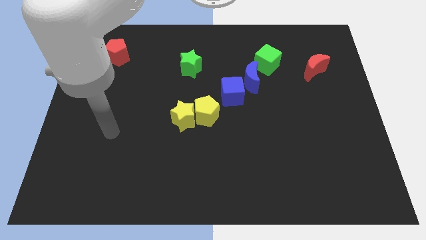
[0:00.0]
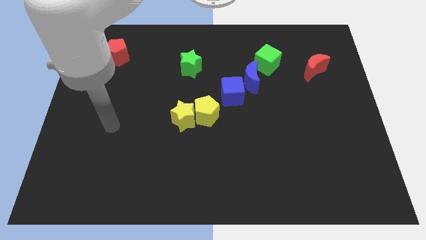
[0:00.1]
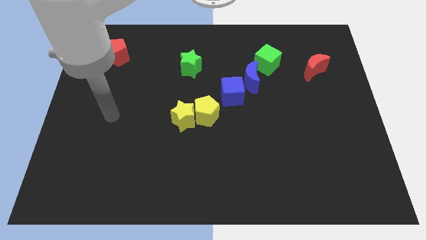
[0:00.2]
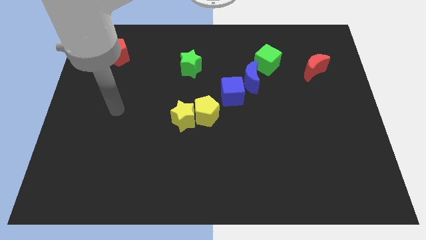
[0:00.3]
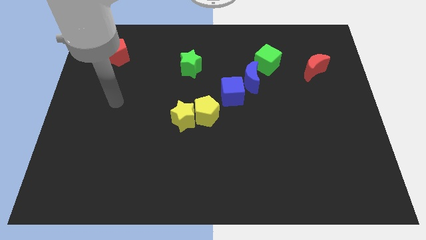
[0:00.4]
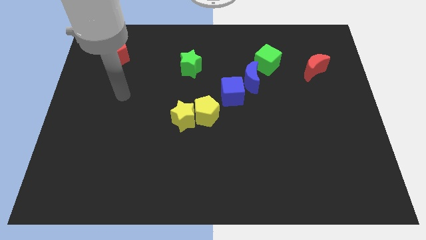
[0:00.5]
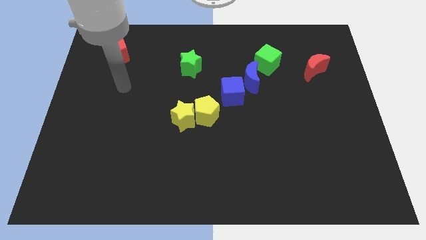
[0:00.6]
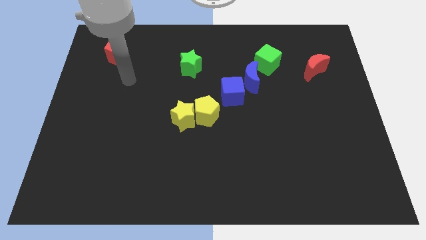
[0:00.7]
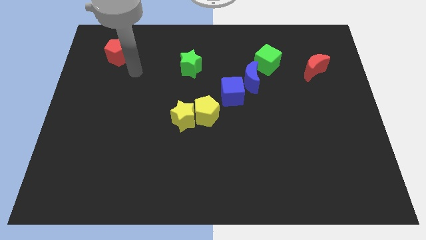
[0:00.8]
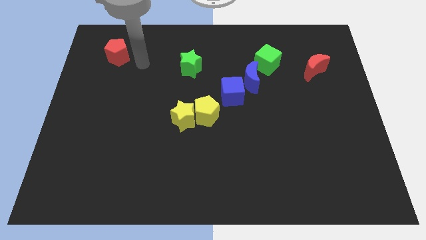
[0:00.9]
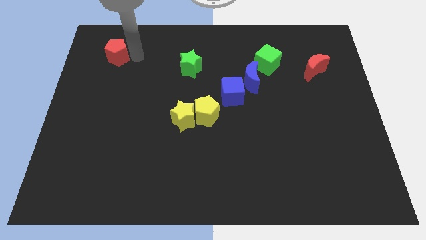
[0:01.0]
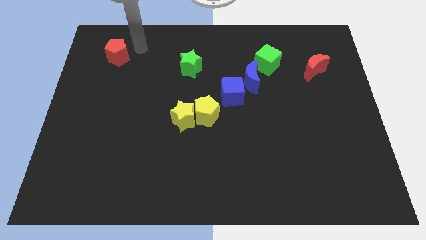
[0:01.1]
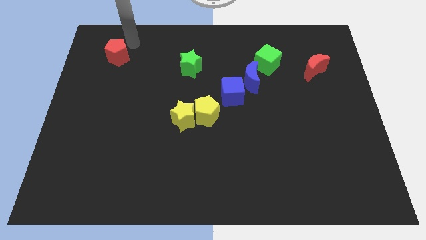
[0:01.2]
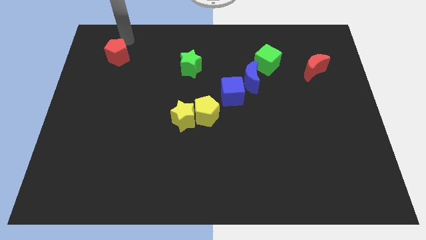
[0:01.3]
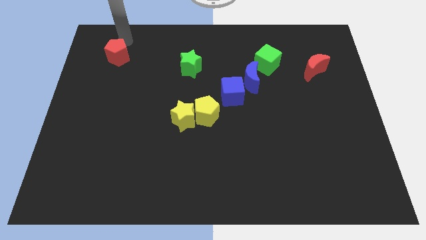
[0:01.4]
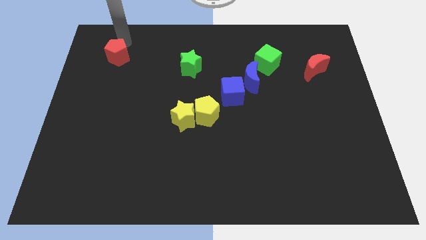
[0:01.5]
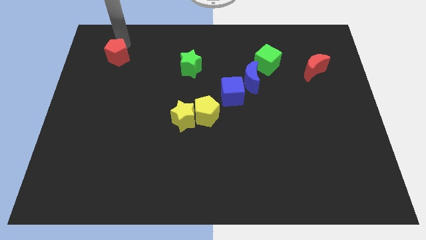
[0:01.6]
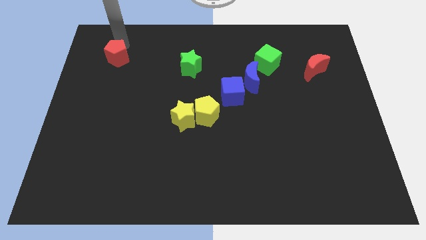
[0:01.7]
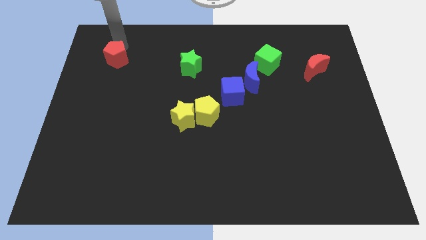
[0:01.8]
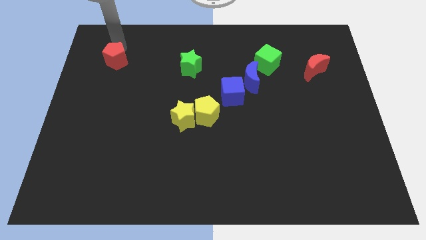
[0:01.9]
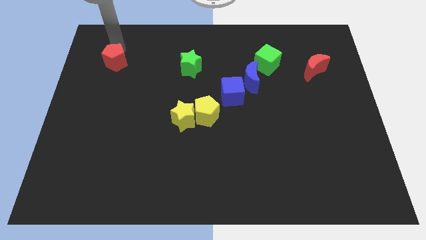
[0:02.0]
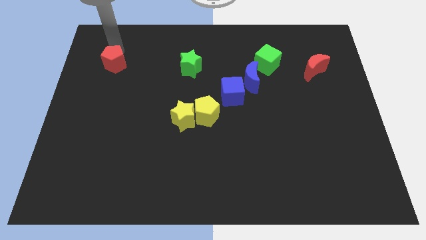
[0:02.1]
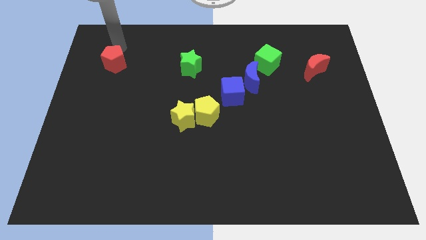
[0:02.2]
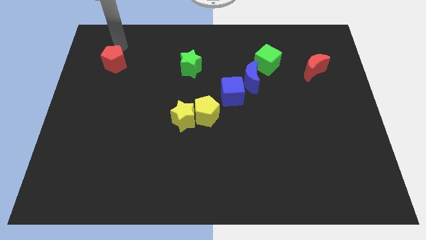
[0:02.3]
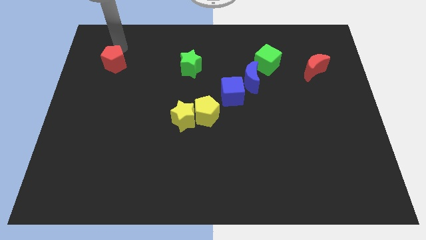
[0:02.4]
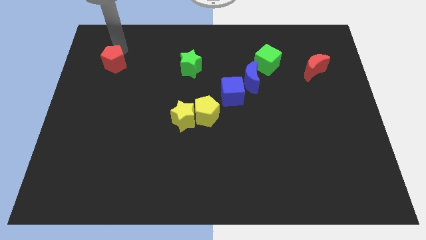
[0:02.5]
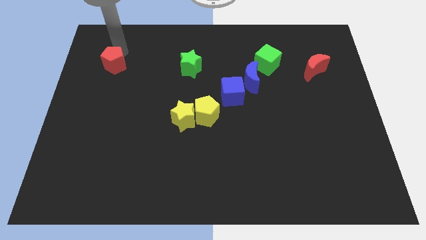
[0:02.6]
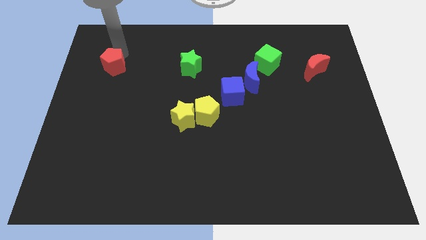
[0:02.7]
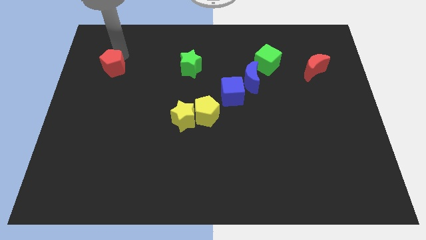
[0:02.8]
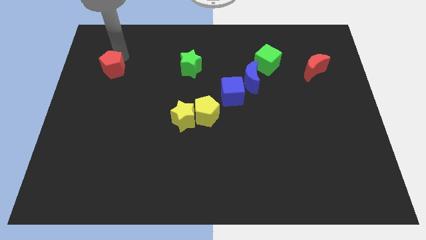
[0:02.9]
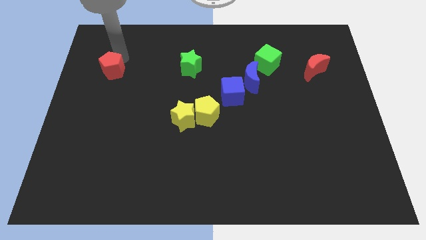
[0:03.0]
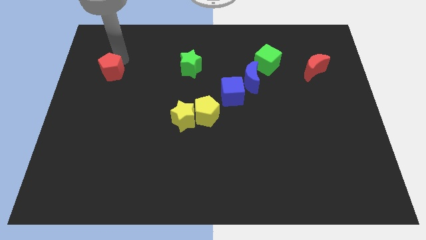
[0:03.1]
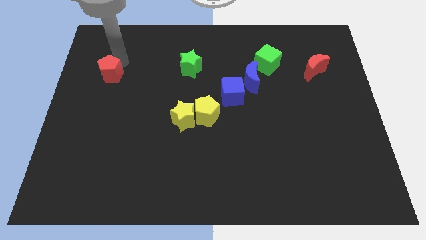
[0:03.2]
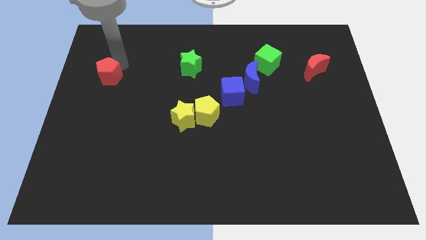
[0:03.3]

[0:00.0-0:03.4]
push the red pentagon a bit down

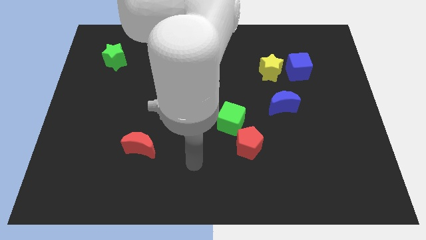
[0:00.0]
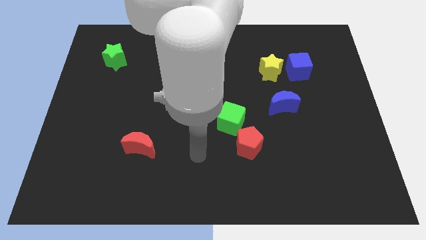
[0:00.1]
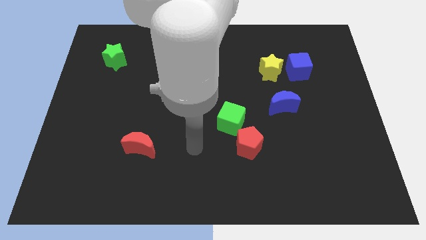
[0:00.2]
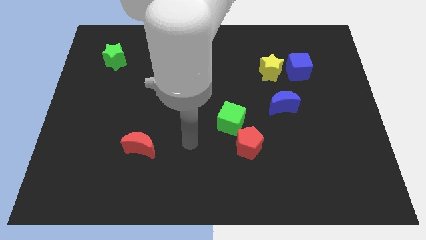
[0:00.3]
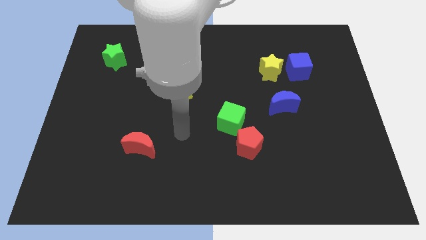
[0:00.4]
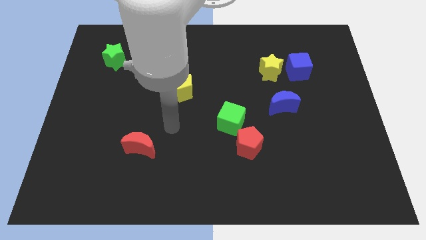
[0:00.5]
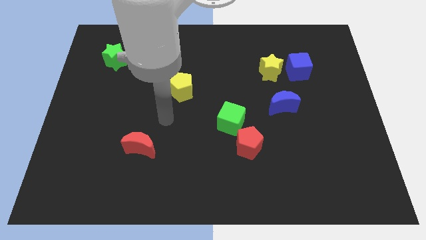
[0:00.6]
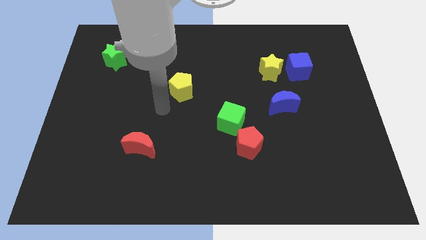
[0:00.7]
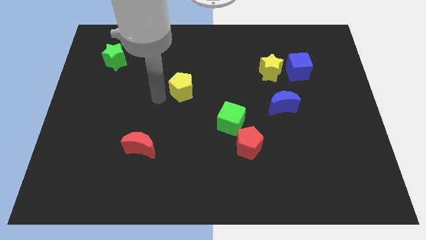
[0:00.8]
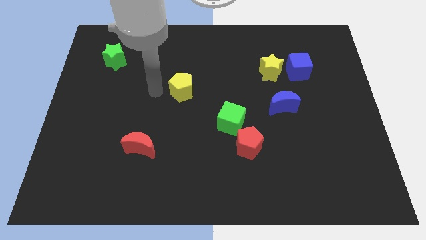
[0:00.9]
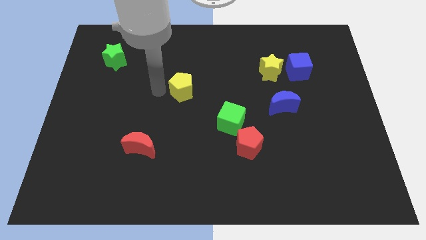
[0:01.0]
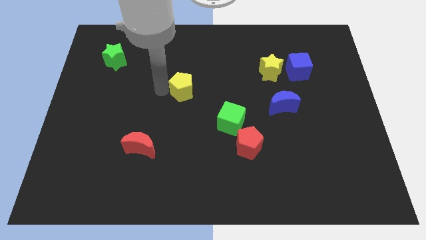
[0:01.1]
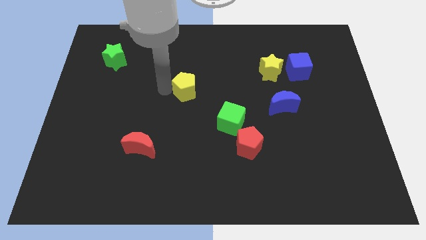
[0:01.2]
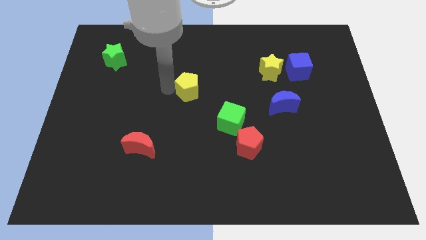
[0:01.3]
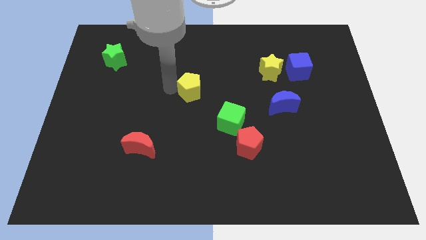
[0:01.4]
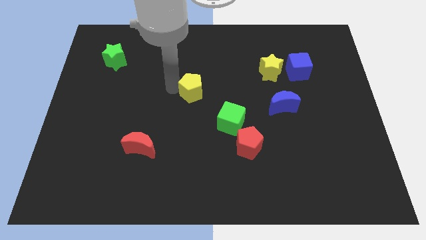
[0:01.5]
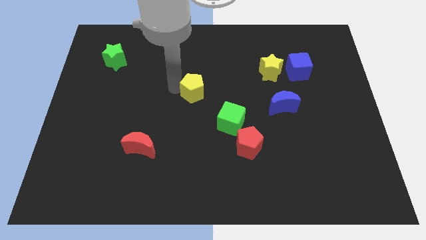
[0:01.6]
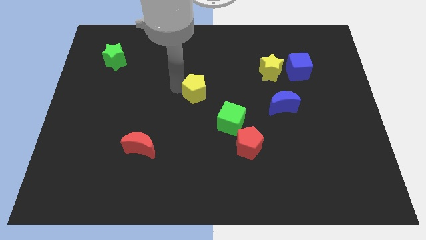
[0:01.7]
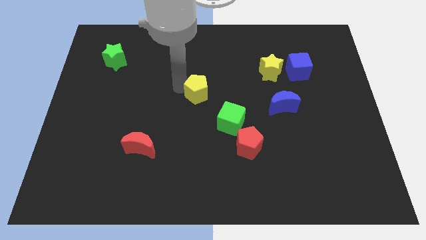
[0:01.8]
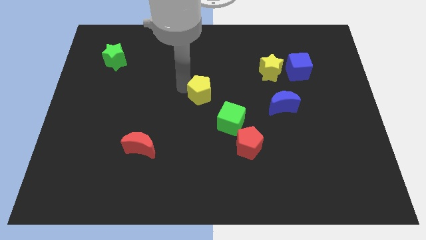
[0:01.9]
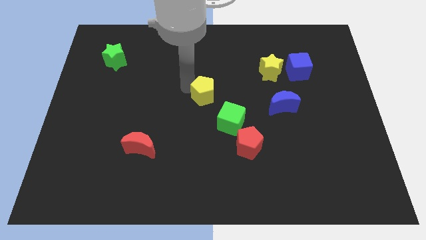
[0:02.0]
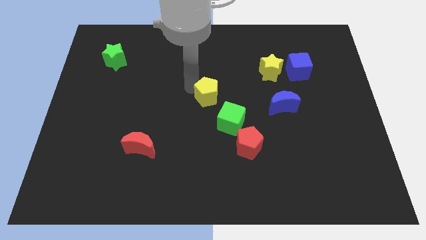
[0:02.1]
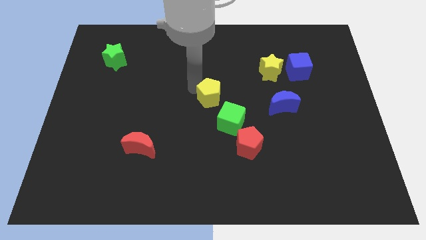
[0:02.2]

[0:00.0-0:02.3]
move the yellow pentagon to the right a little

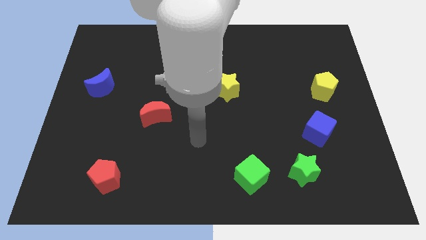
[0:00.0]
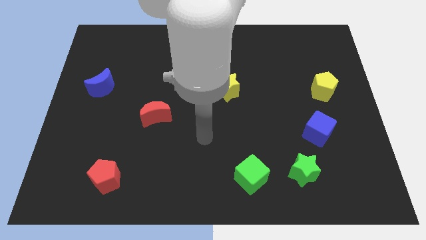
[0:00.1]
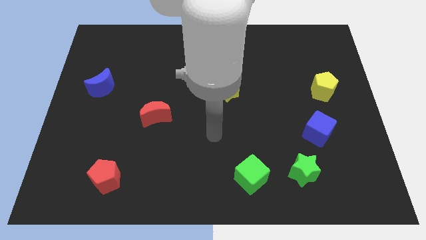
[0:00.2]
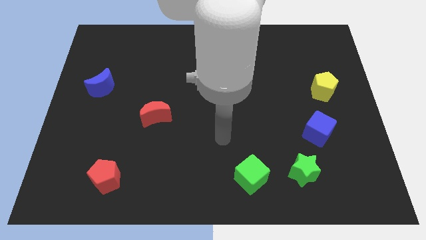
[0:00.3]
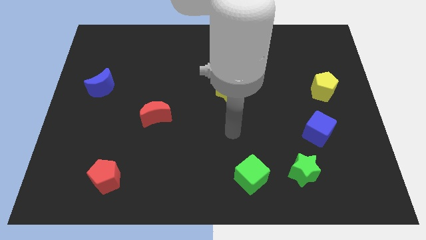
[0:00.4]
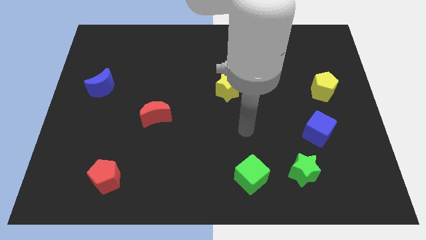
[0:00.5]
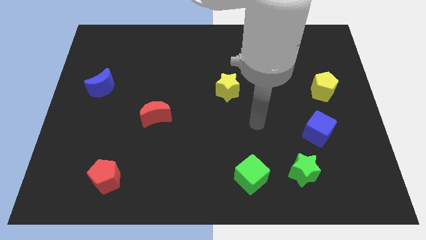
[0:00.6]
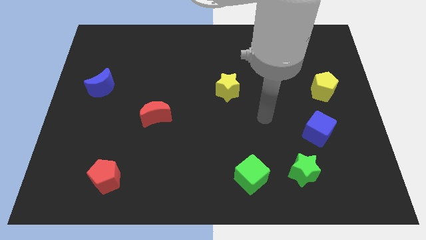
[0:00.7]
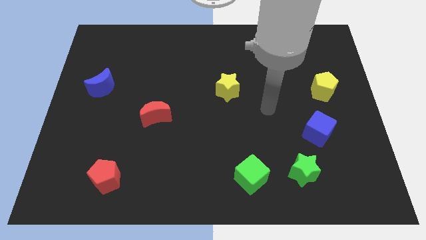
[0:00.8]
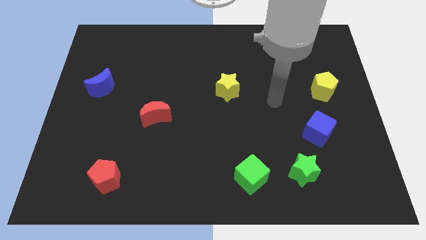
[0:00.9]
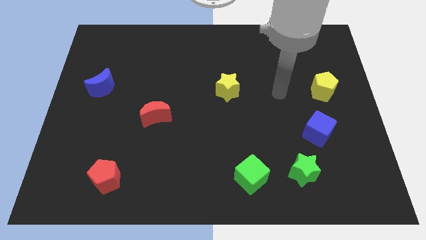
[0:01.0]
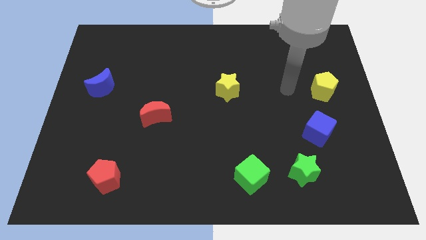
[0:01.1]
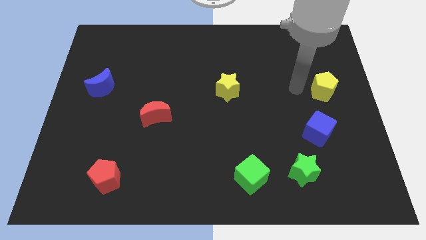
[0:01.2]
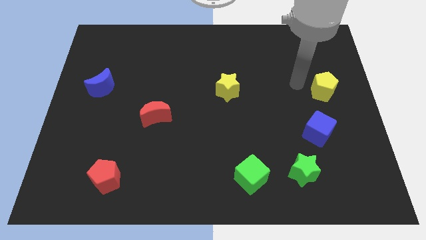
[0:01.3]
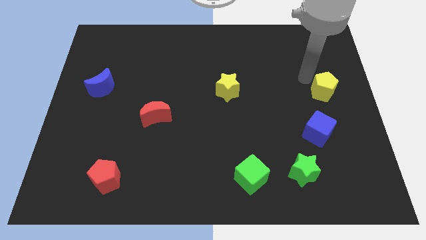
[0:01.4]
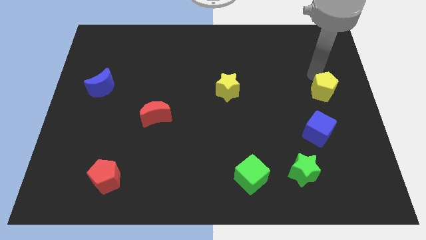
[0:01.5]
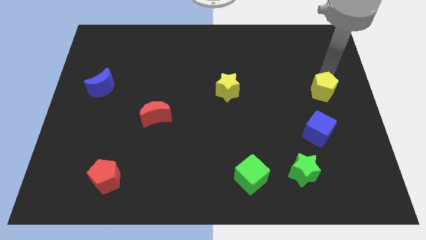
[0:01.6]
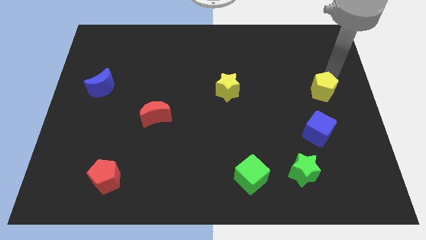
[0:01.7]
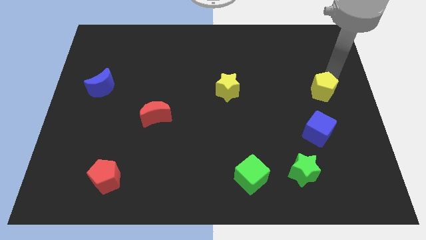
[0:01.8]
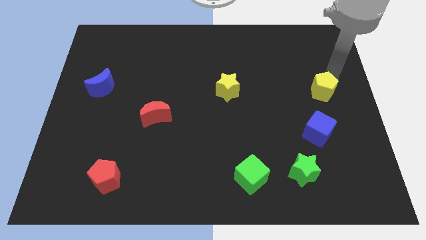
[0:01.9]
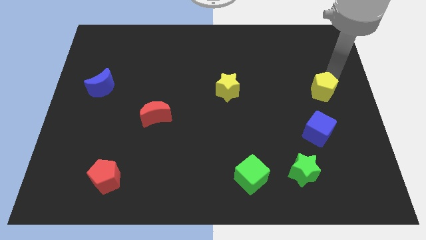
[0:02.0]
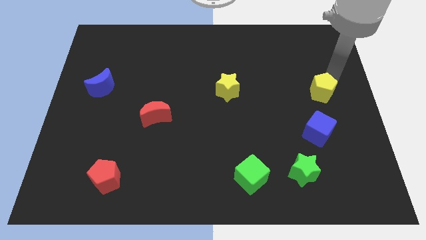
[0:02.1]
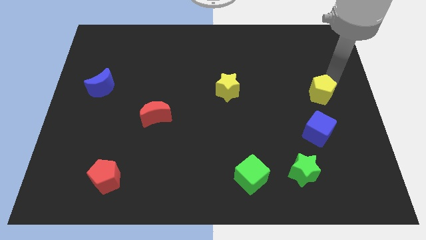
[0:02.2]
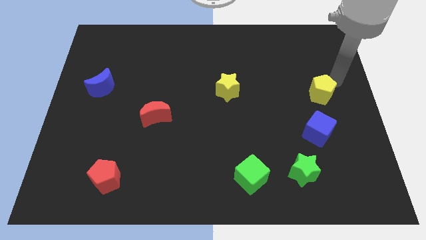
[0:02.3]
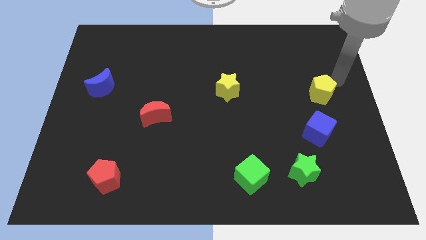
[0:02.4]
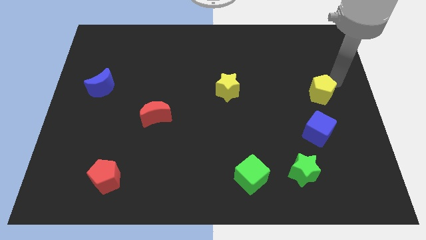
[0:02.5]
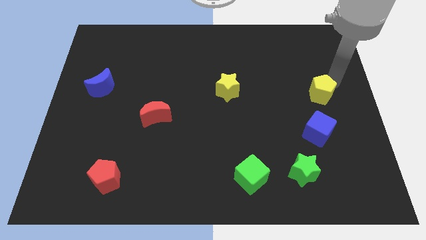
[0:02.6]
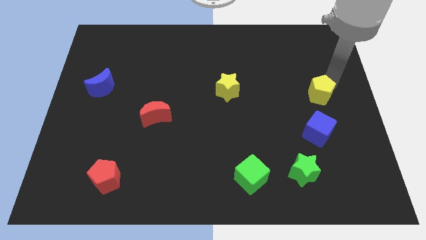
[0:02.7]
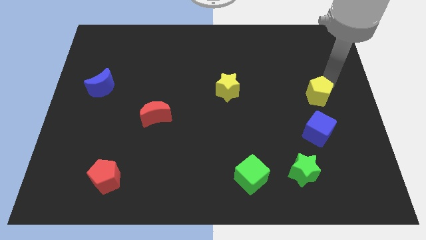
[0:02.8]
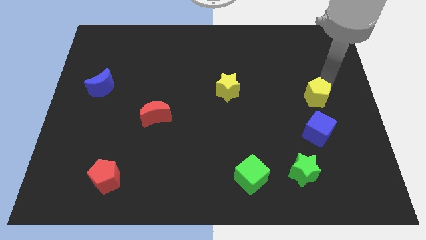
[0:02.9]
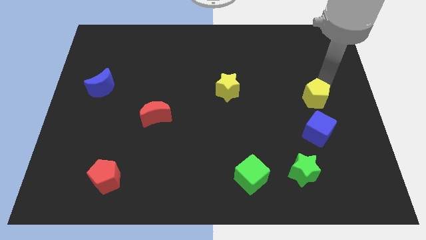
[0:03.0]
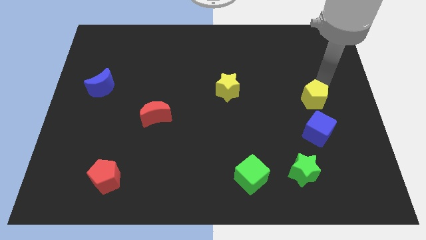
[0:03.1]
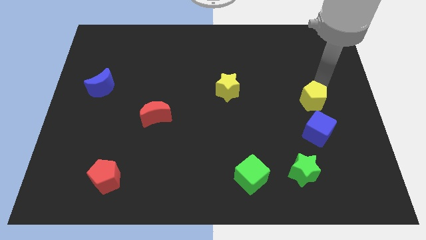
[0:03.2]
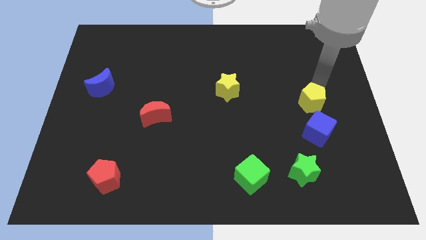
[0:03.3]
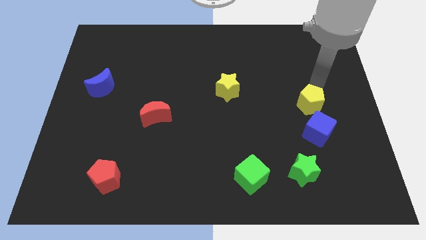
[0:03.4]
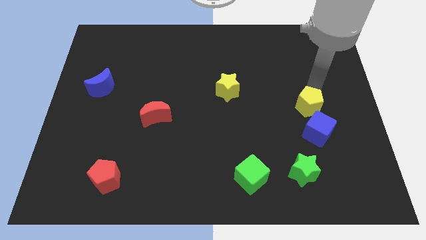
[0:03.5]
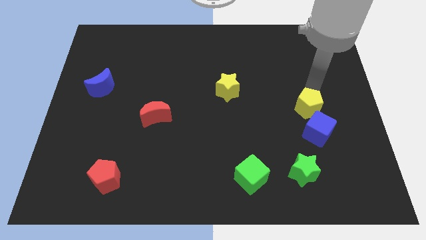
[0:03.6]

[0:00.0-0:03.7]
push the yellow pentagon downwards and left a bit
